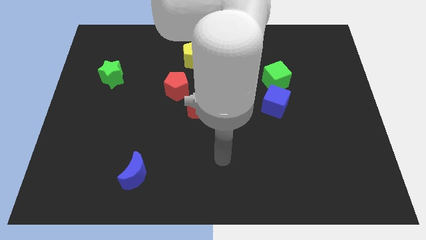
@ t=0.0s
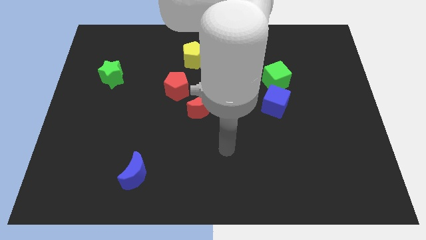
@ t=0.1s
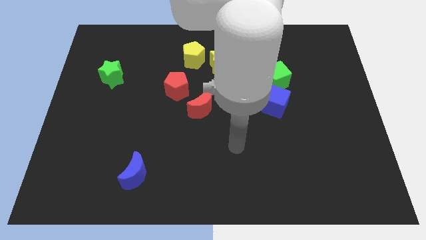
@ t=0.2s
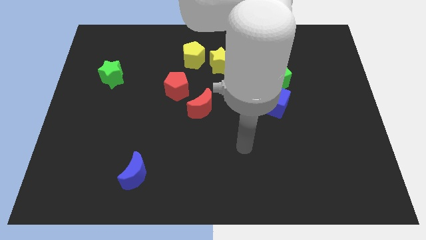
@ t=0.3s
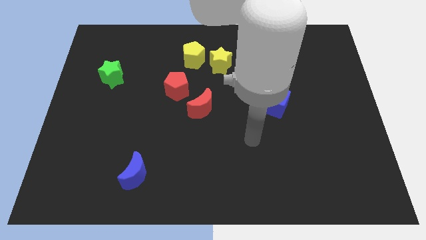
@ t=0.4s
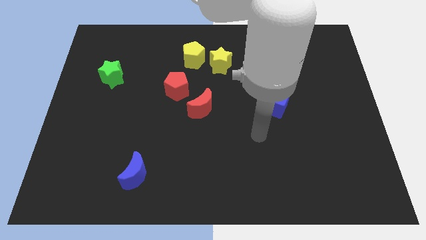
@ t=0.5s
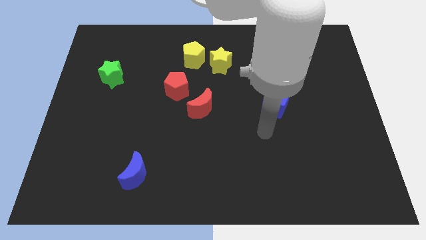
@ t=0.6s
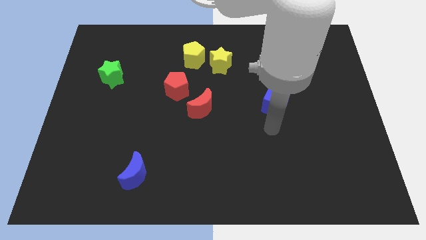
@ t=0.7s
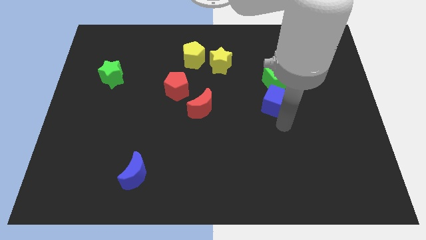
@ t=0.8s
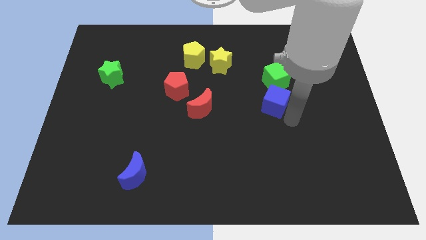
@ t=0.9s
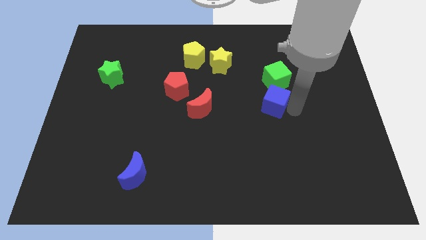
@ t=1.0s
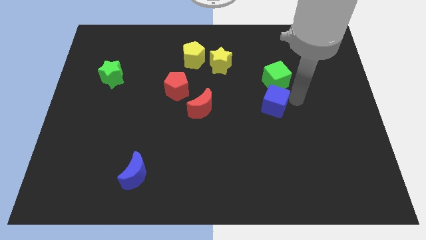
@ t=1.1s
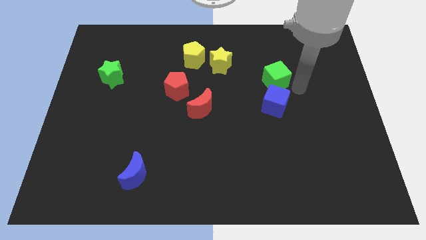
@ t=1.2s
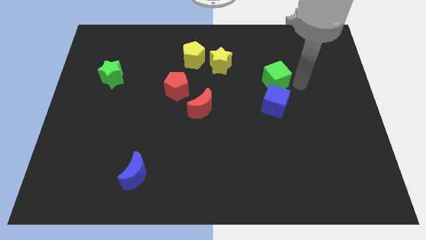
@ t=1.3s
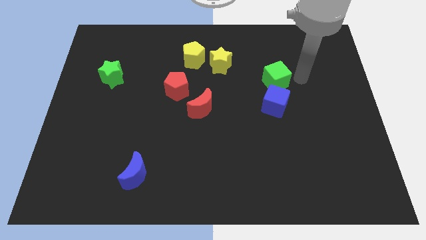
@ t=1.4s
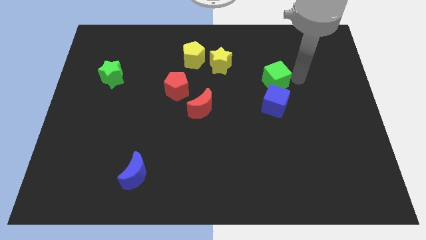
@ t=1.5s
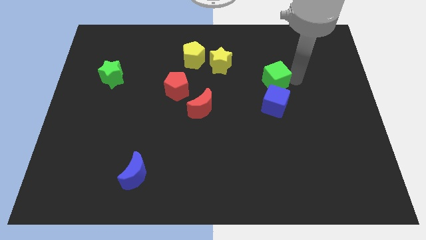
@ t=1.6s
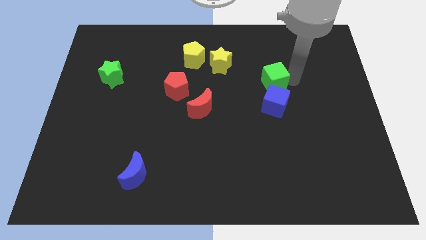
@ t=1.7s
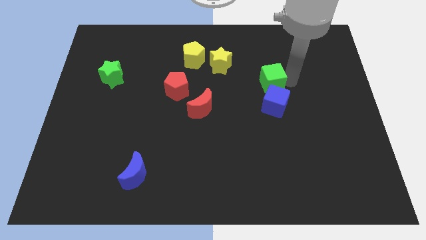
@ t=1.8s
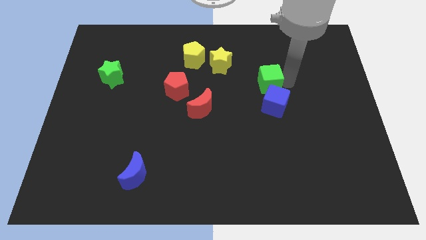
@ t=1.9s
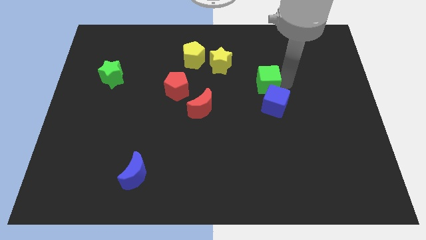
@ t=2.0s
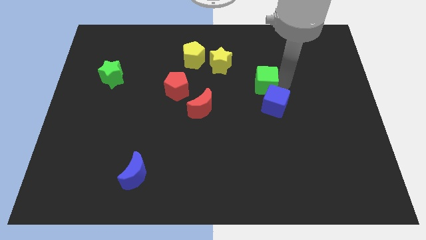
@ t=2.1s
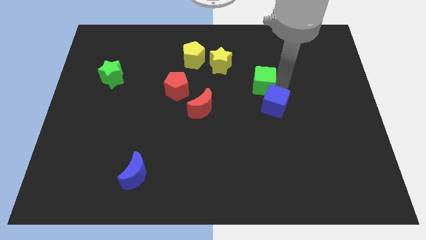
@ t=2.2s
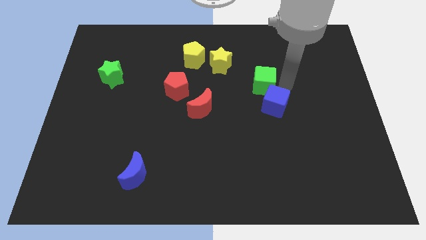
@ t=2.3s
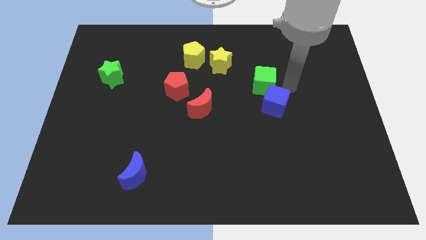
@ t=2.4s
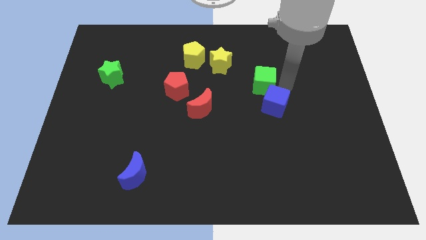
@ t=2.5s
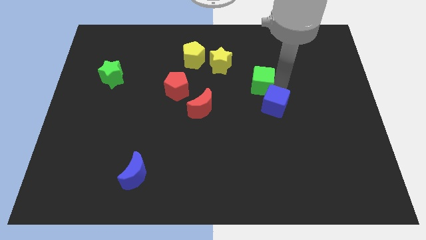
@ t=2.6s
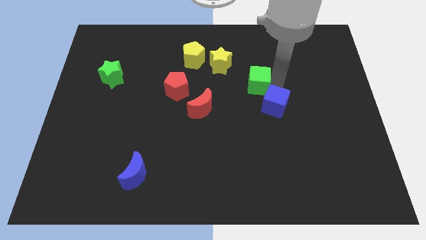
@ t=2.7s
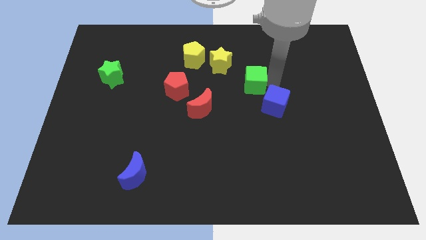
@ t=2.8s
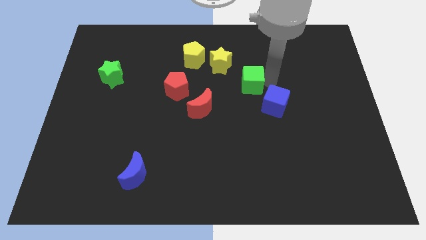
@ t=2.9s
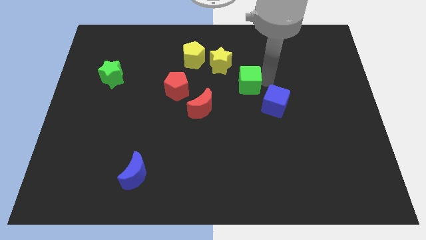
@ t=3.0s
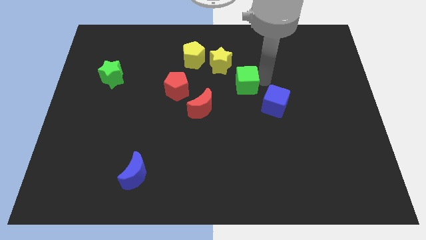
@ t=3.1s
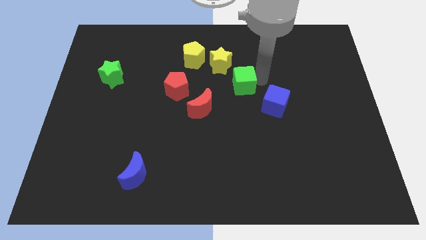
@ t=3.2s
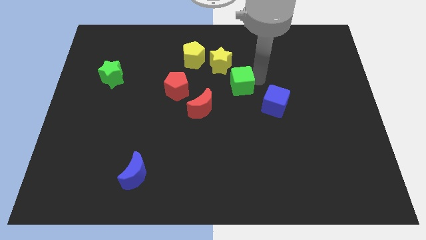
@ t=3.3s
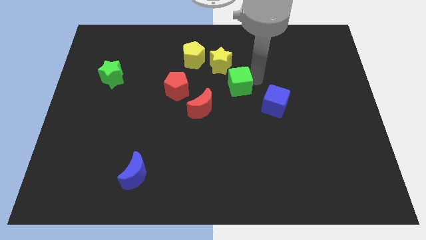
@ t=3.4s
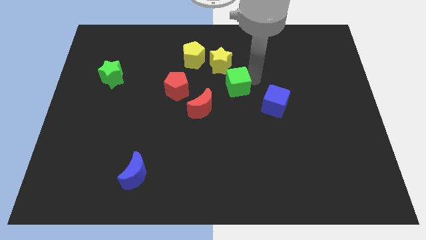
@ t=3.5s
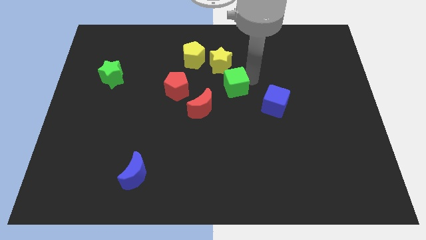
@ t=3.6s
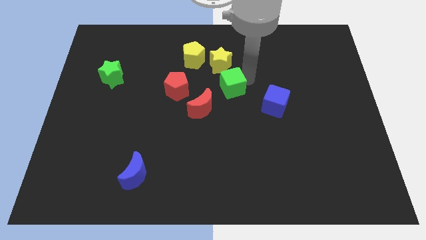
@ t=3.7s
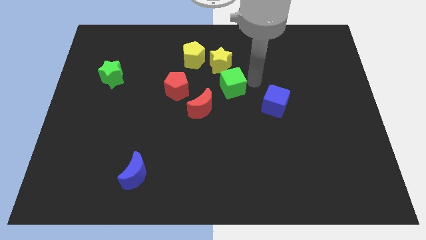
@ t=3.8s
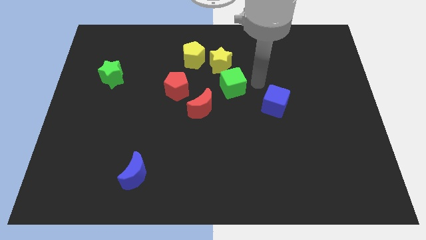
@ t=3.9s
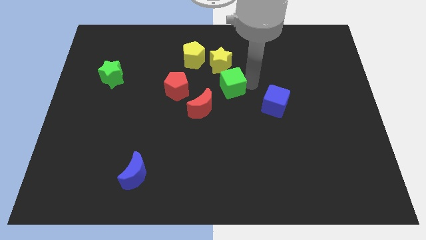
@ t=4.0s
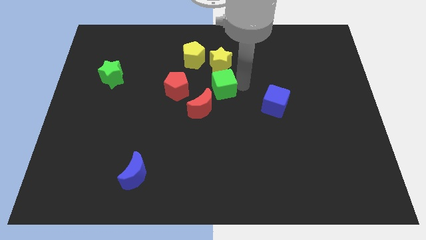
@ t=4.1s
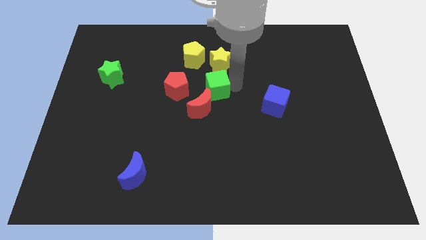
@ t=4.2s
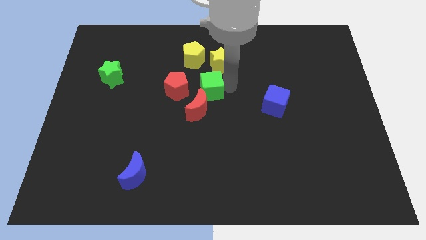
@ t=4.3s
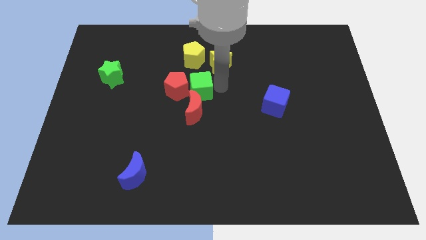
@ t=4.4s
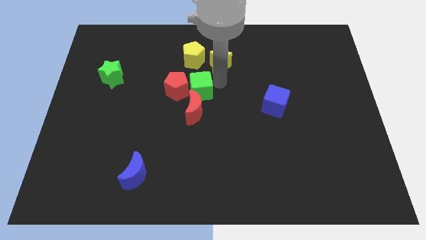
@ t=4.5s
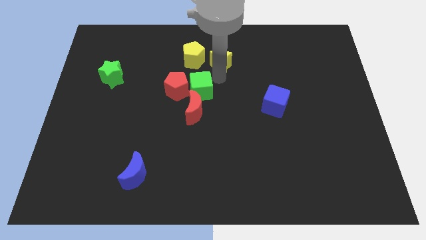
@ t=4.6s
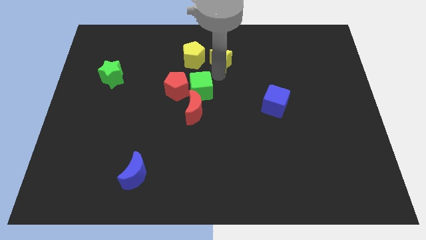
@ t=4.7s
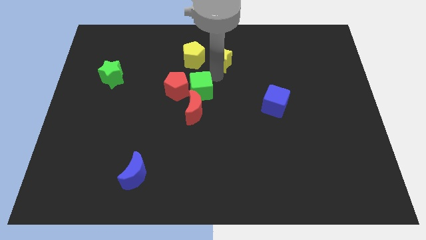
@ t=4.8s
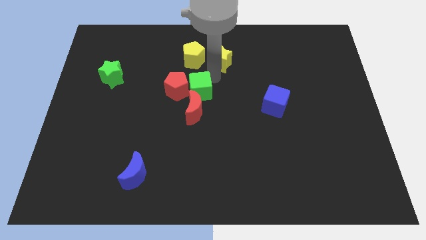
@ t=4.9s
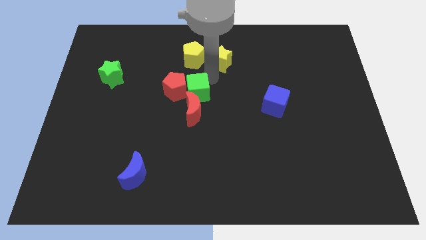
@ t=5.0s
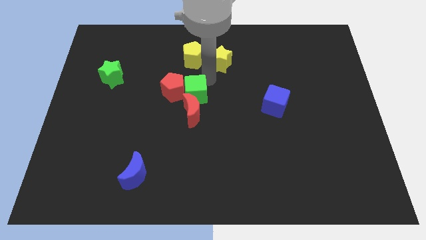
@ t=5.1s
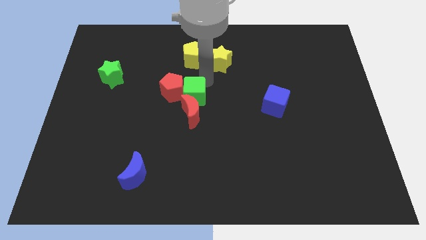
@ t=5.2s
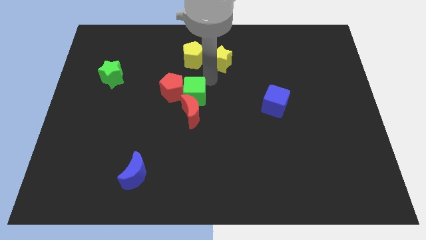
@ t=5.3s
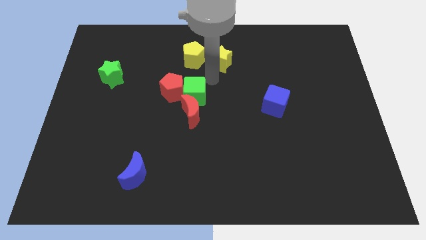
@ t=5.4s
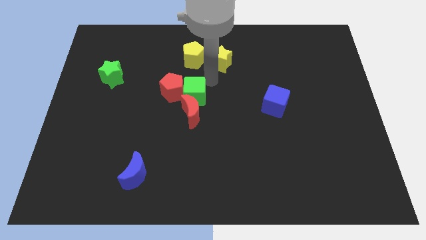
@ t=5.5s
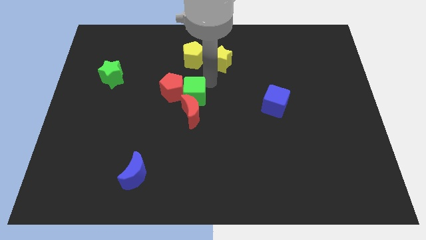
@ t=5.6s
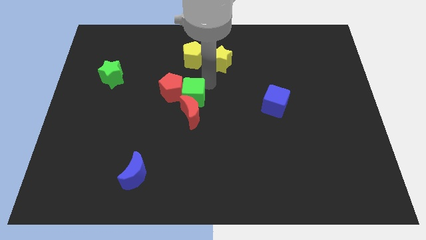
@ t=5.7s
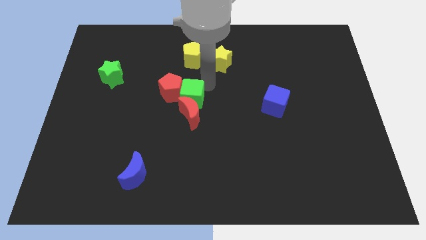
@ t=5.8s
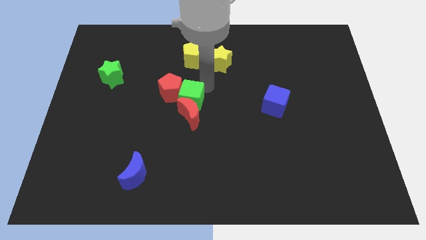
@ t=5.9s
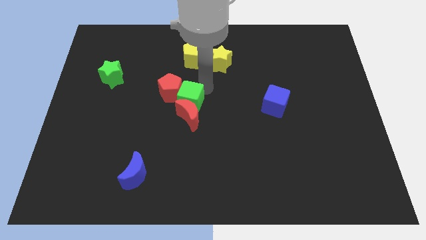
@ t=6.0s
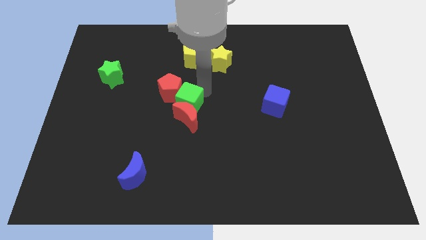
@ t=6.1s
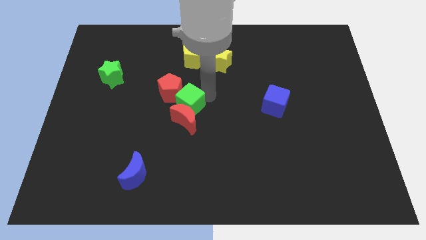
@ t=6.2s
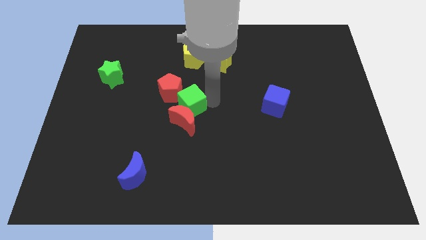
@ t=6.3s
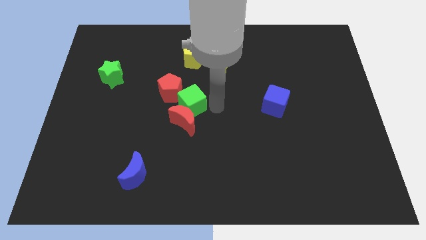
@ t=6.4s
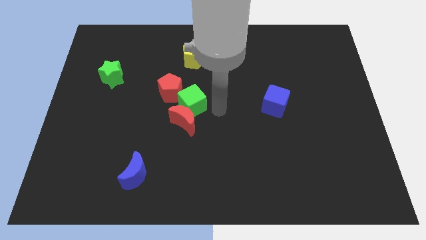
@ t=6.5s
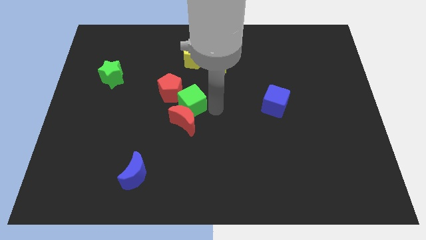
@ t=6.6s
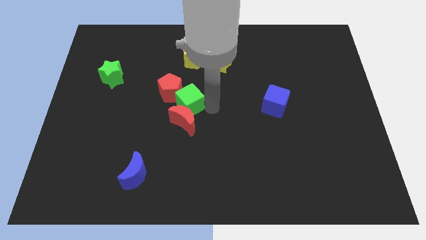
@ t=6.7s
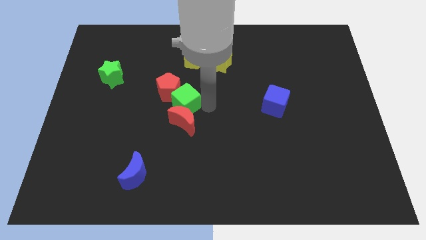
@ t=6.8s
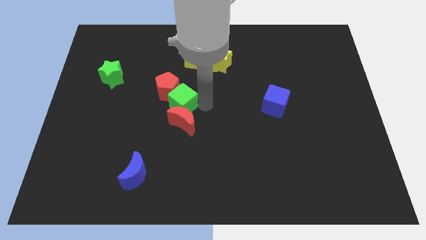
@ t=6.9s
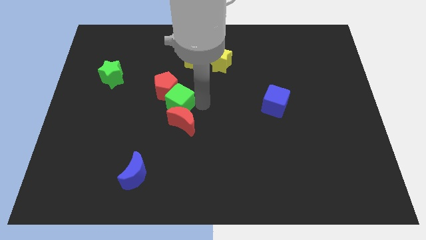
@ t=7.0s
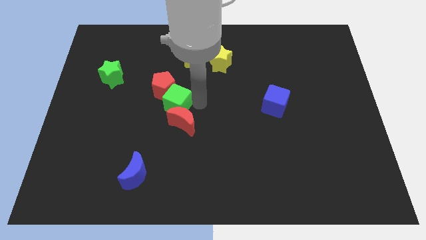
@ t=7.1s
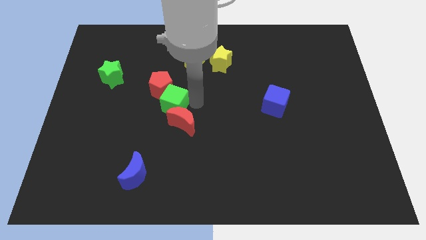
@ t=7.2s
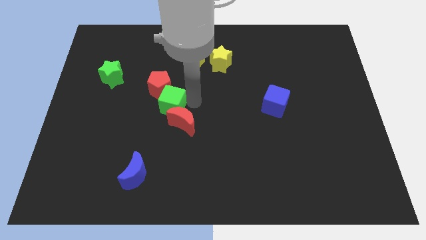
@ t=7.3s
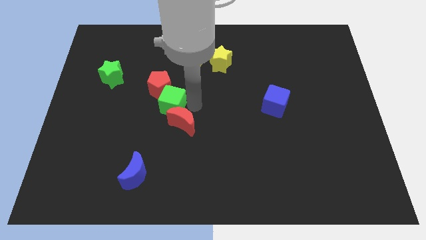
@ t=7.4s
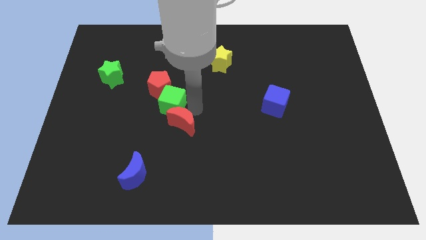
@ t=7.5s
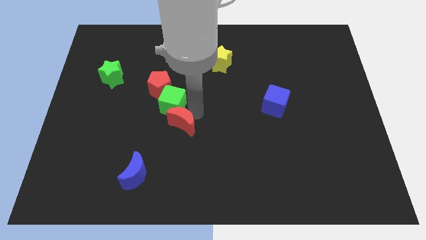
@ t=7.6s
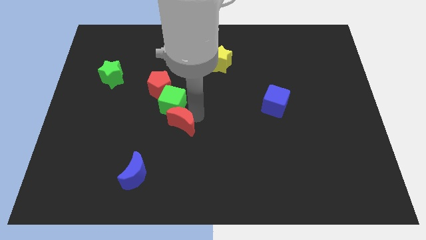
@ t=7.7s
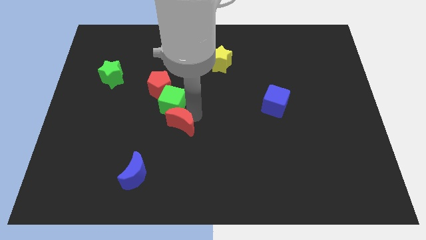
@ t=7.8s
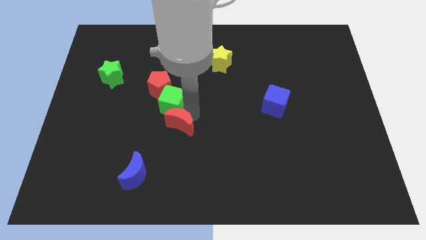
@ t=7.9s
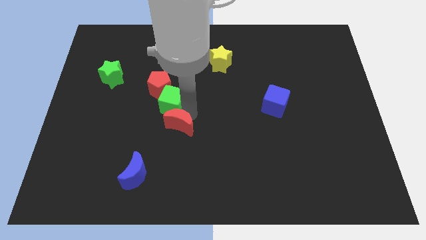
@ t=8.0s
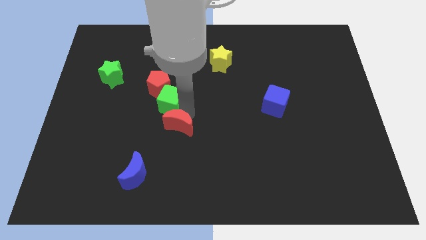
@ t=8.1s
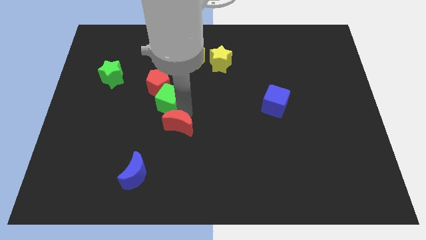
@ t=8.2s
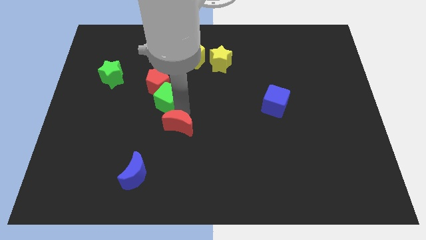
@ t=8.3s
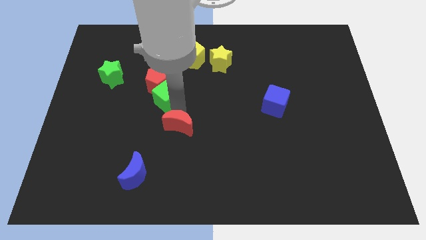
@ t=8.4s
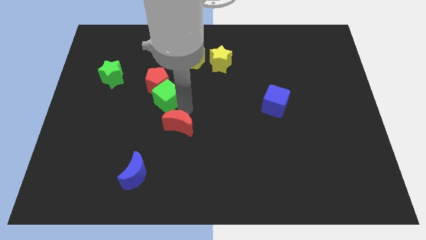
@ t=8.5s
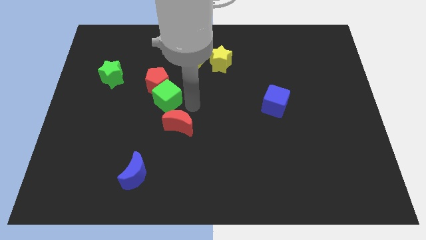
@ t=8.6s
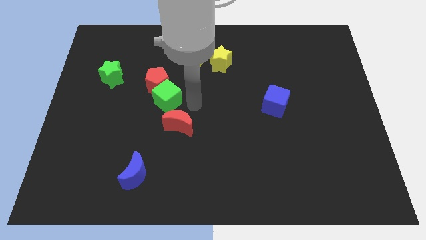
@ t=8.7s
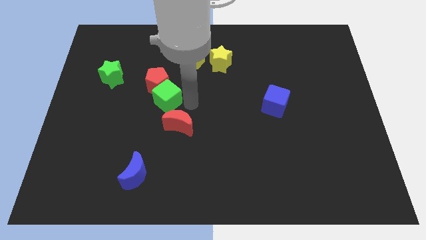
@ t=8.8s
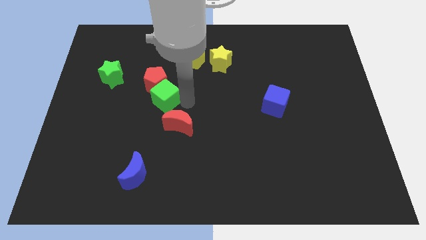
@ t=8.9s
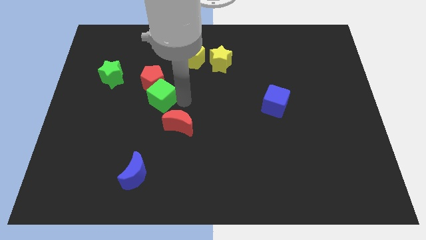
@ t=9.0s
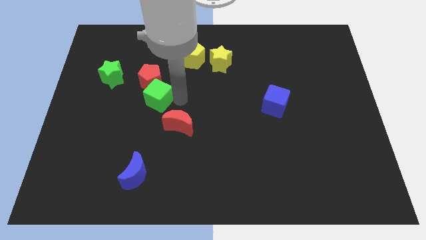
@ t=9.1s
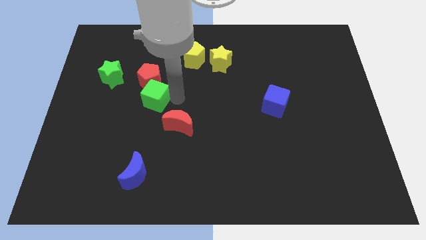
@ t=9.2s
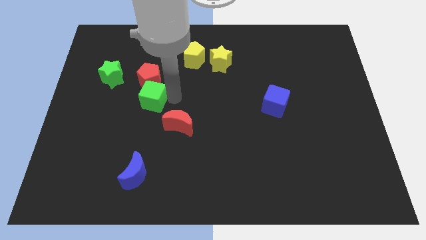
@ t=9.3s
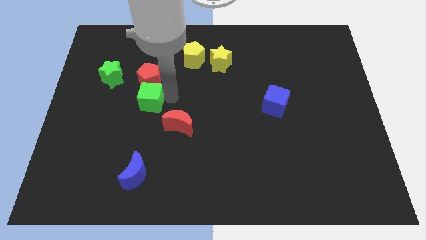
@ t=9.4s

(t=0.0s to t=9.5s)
push the green cube to the bottom right of the green star
